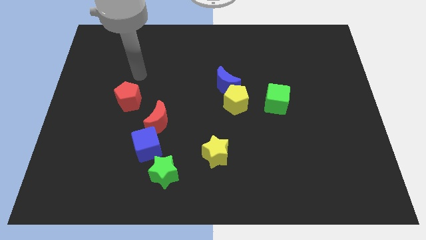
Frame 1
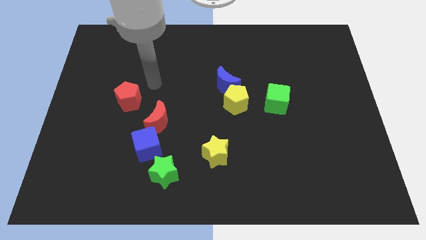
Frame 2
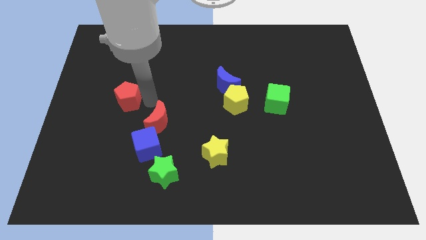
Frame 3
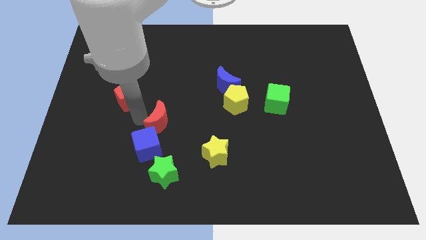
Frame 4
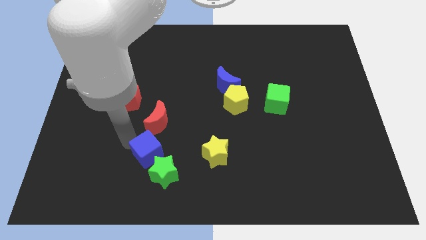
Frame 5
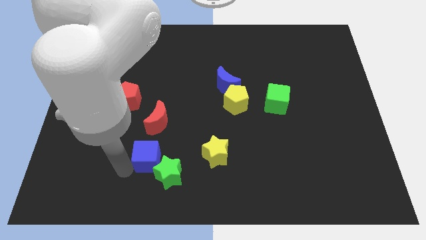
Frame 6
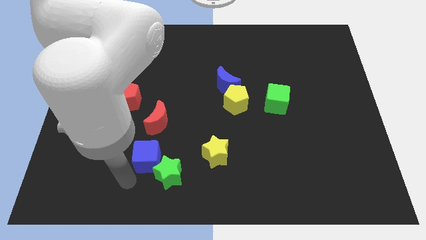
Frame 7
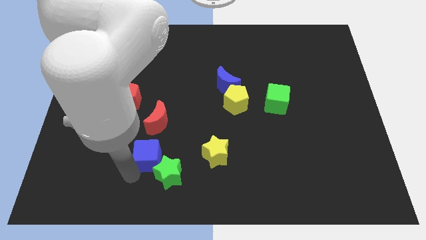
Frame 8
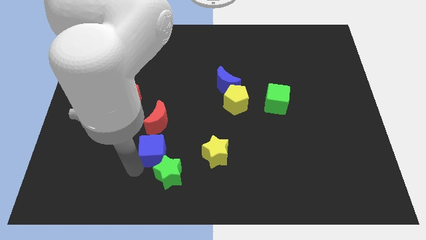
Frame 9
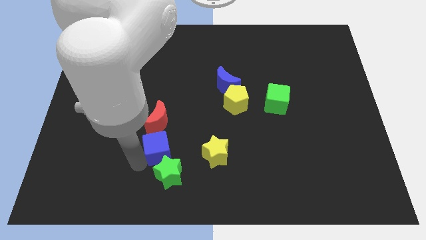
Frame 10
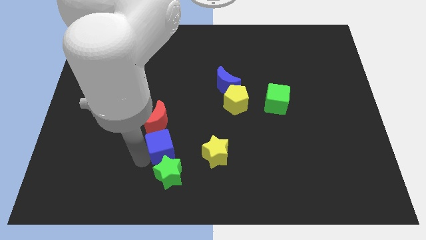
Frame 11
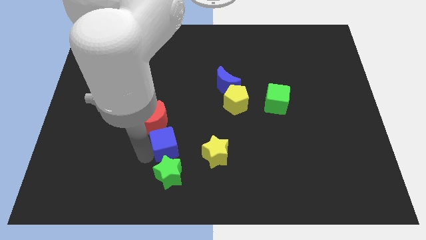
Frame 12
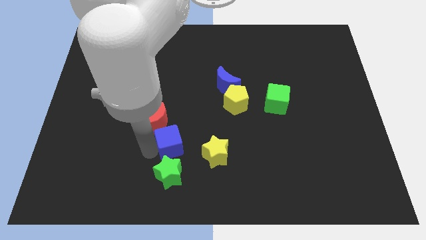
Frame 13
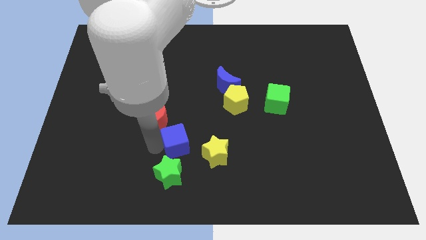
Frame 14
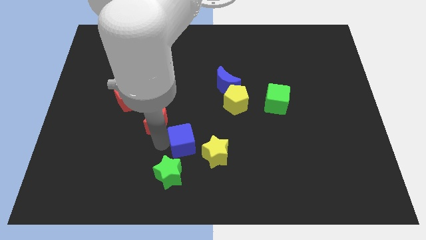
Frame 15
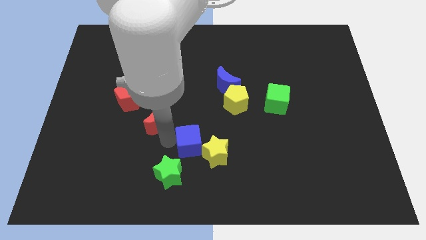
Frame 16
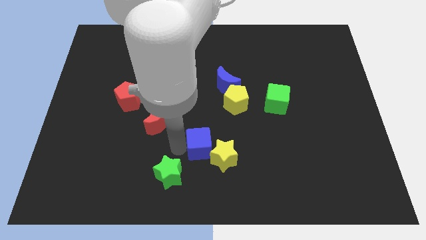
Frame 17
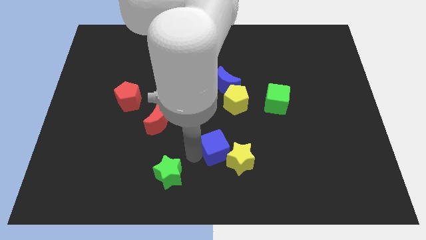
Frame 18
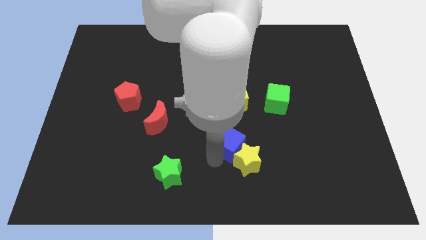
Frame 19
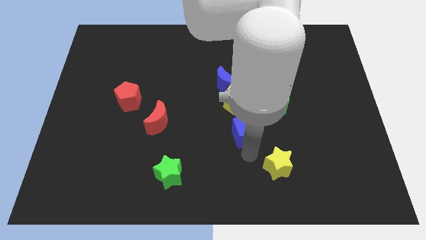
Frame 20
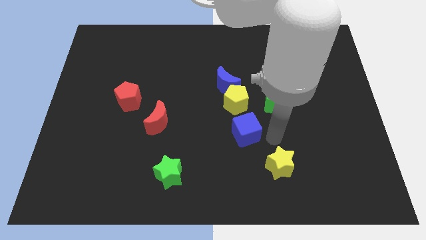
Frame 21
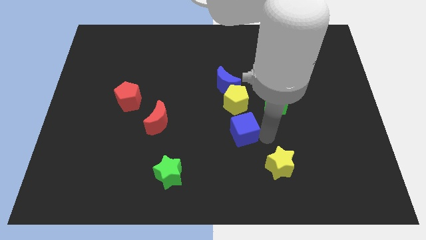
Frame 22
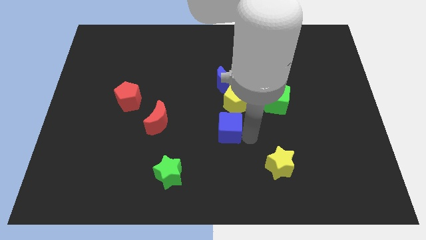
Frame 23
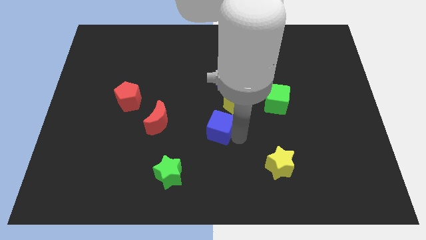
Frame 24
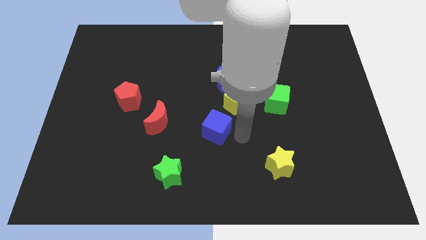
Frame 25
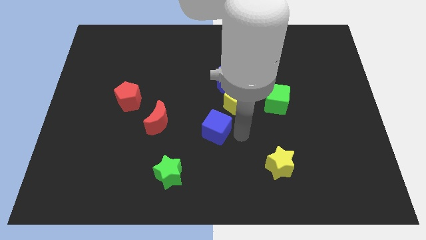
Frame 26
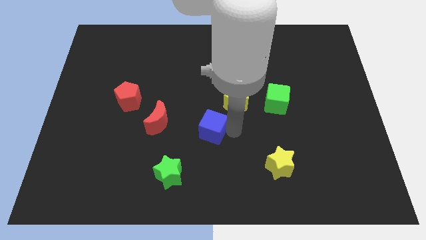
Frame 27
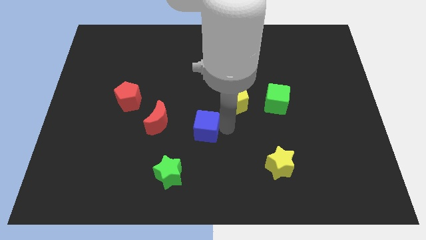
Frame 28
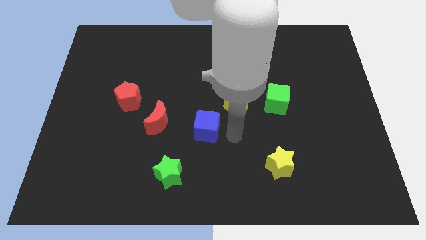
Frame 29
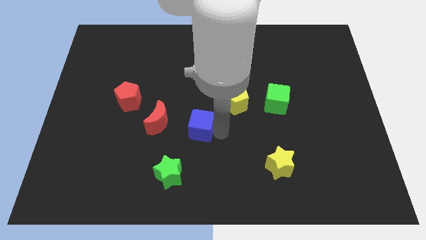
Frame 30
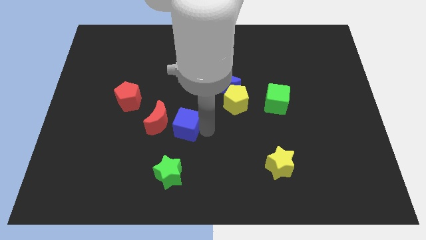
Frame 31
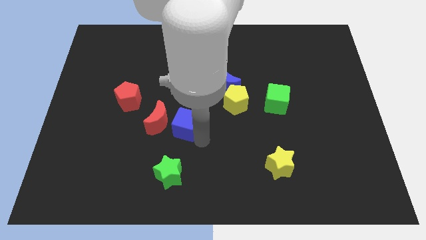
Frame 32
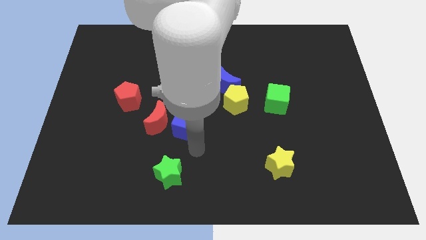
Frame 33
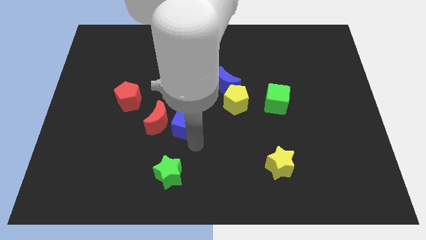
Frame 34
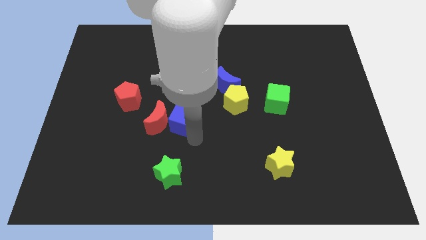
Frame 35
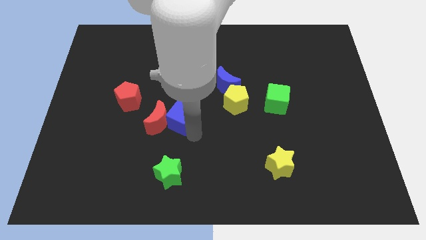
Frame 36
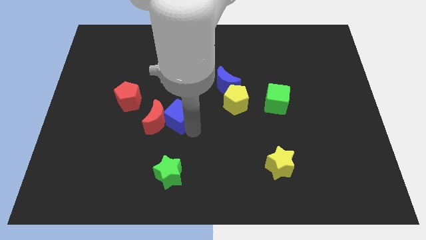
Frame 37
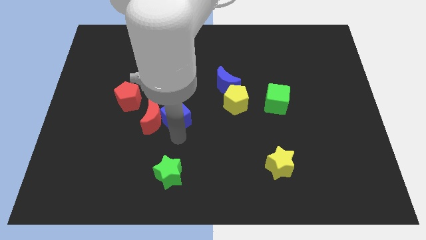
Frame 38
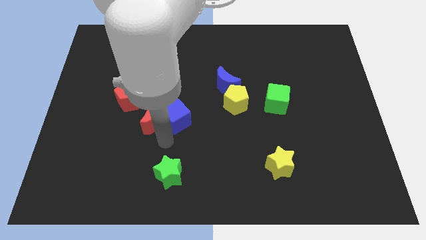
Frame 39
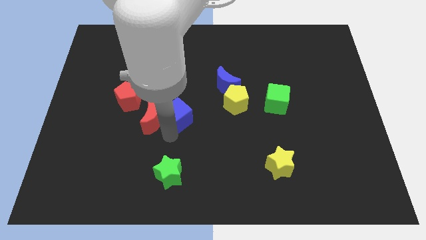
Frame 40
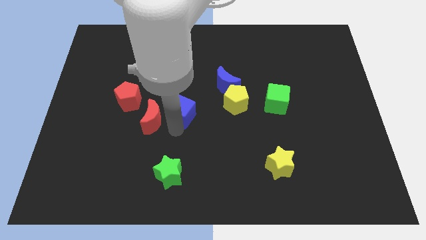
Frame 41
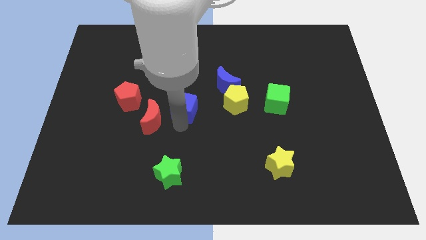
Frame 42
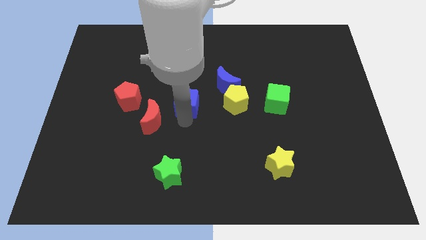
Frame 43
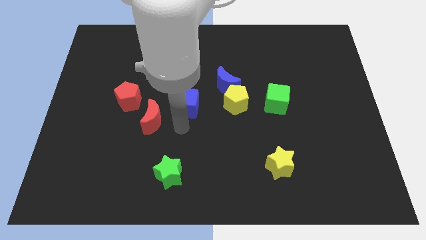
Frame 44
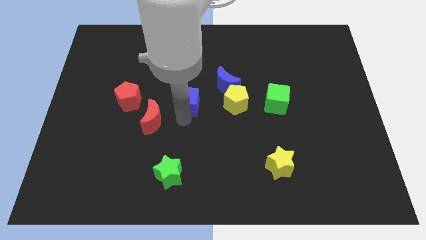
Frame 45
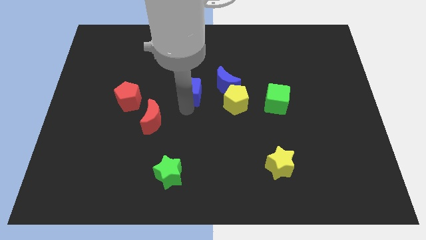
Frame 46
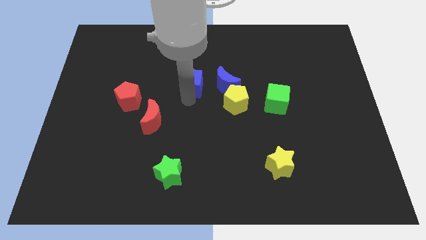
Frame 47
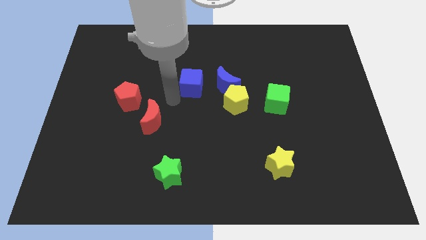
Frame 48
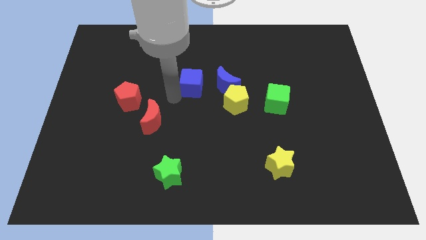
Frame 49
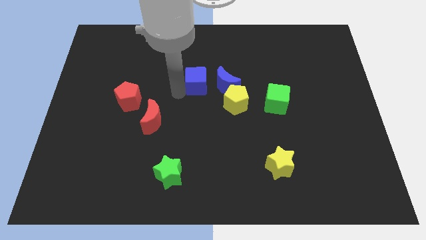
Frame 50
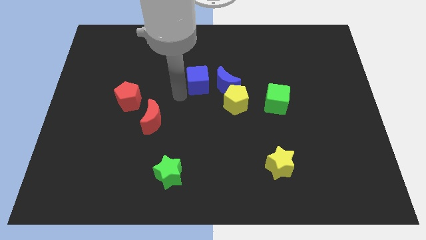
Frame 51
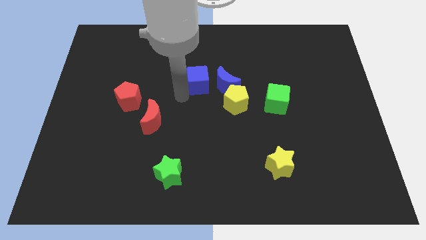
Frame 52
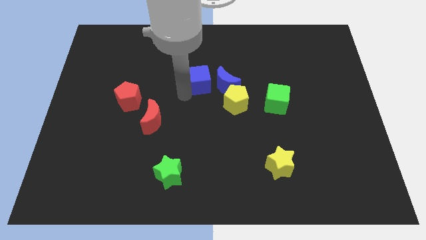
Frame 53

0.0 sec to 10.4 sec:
slide the blue cube diagonally up and to the right

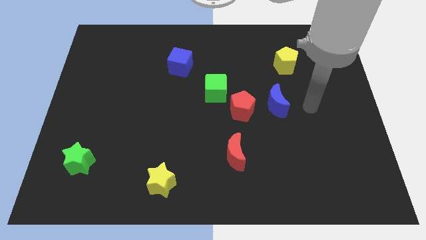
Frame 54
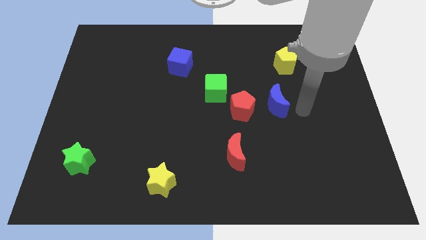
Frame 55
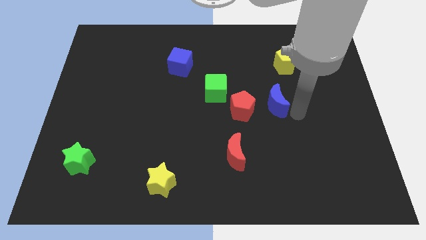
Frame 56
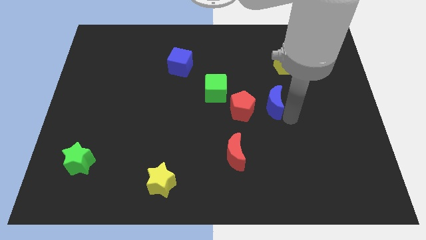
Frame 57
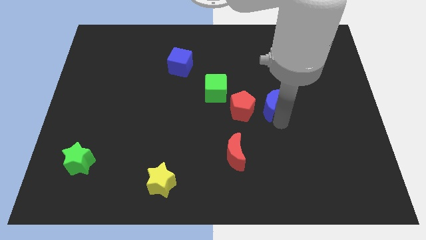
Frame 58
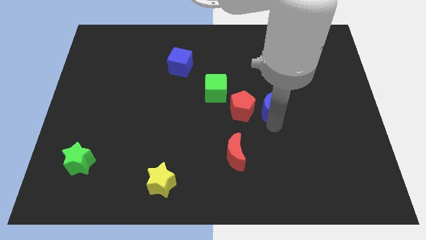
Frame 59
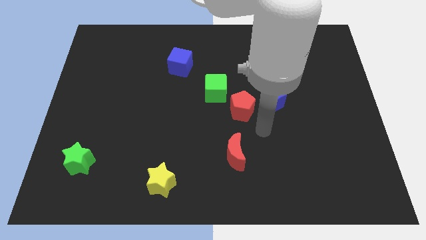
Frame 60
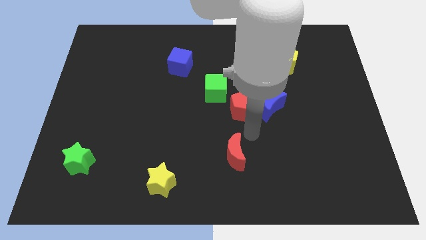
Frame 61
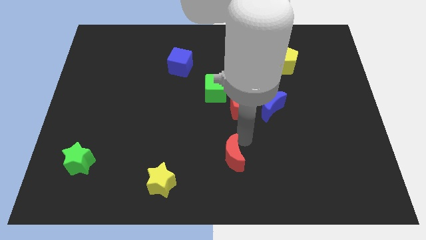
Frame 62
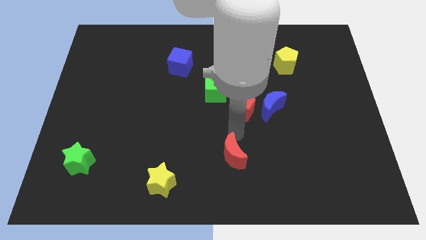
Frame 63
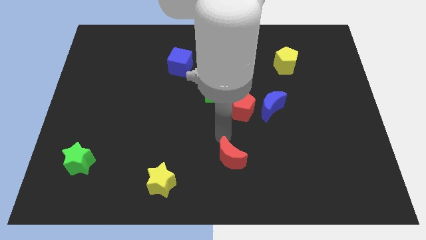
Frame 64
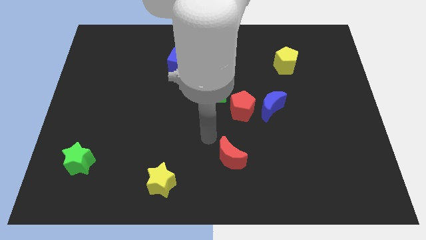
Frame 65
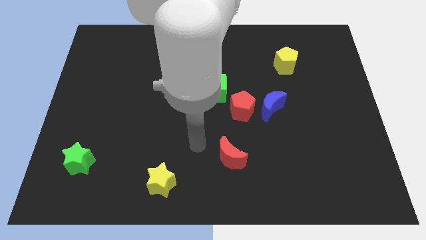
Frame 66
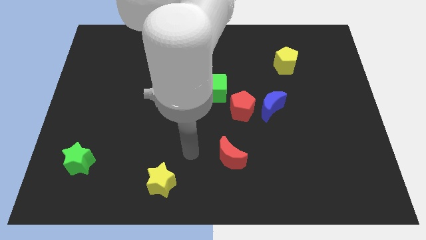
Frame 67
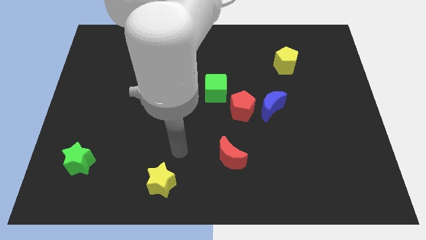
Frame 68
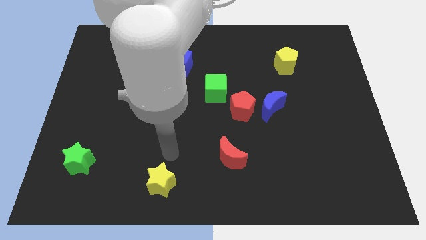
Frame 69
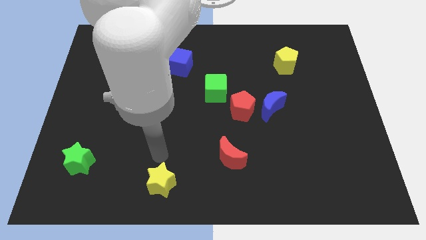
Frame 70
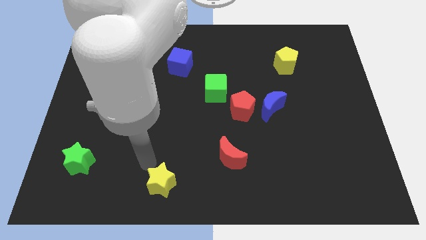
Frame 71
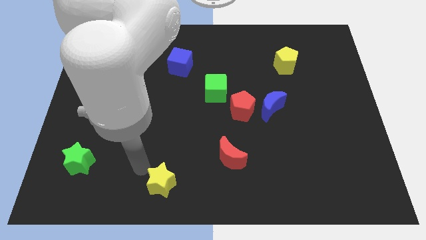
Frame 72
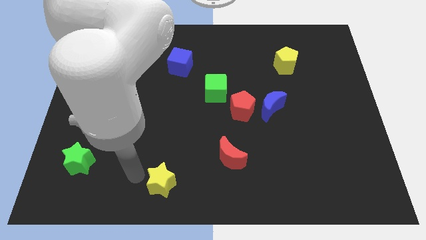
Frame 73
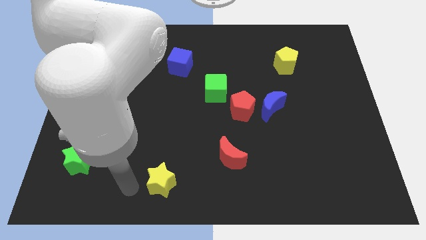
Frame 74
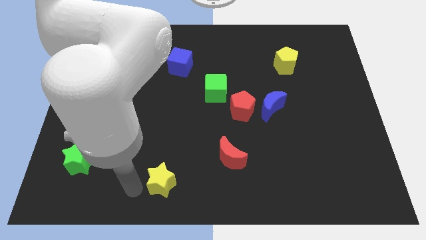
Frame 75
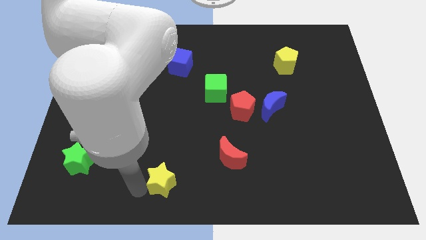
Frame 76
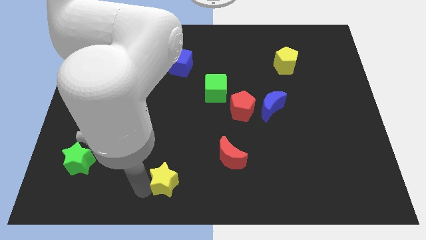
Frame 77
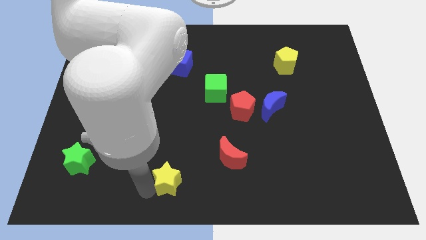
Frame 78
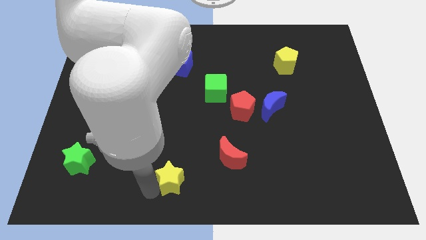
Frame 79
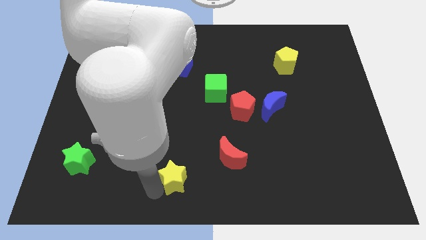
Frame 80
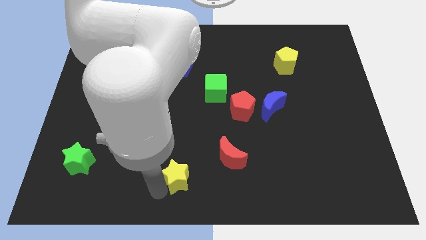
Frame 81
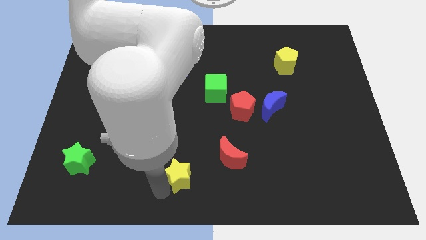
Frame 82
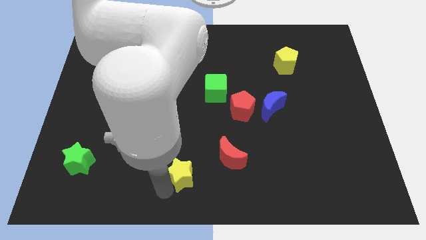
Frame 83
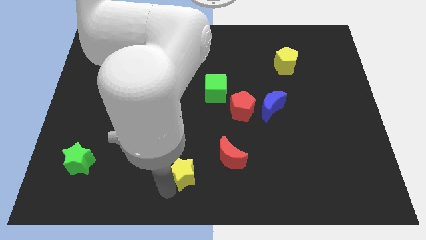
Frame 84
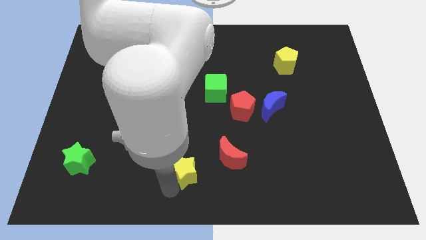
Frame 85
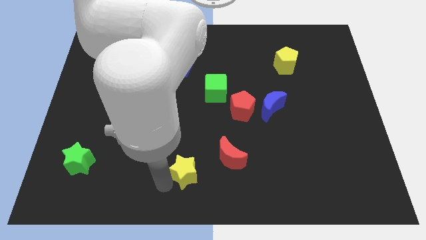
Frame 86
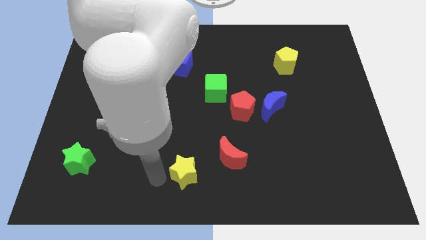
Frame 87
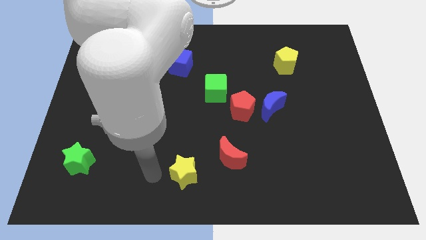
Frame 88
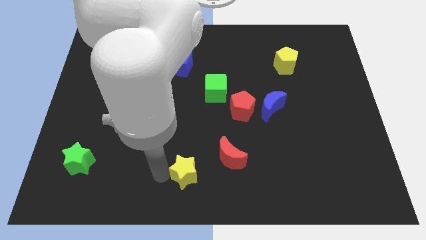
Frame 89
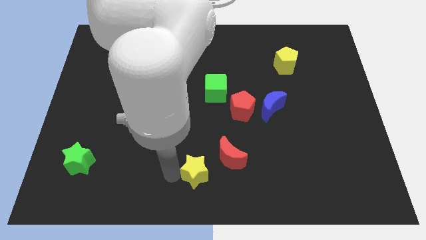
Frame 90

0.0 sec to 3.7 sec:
push the yellow star a little bit right
